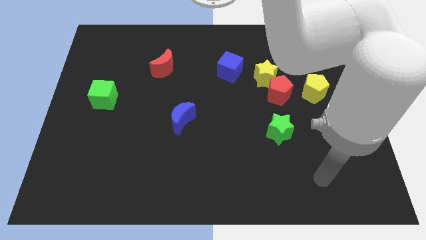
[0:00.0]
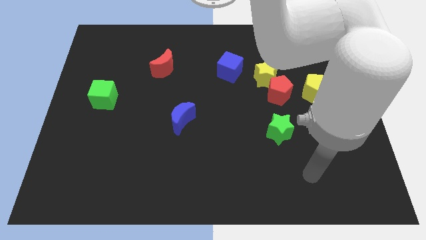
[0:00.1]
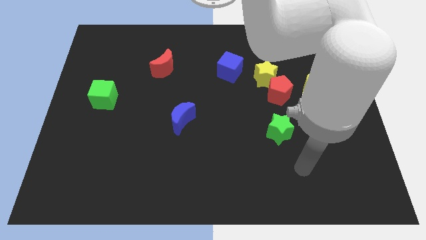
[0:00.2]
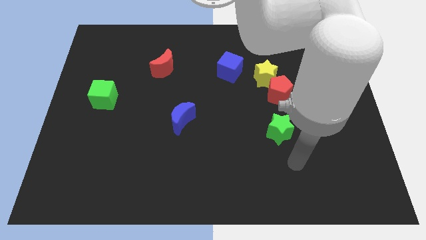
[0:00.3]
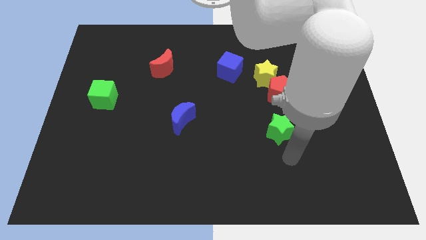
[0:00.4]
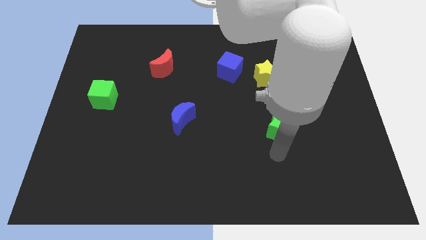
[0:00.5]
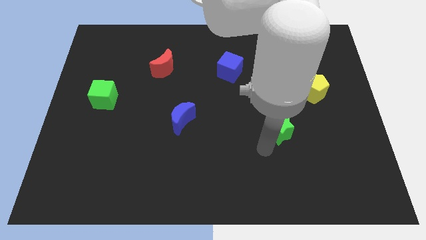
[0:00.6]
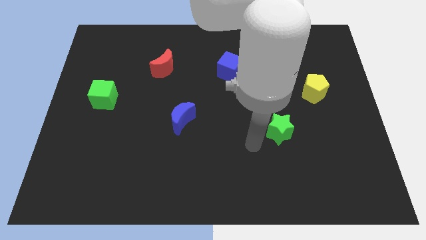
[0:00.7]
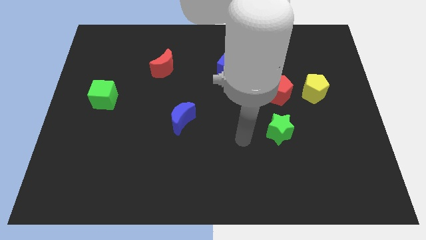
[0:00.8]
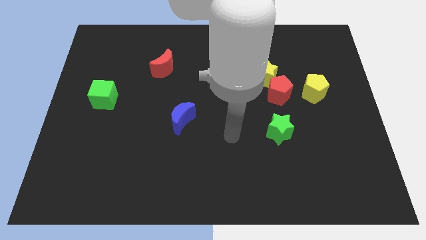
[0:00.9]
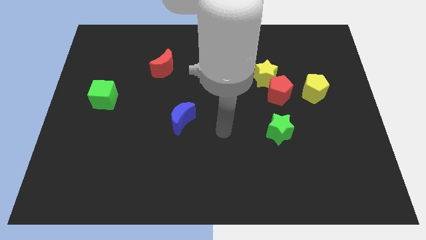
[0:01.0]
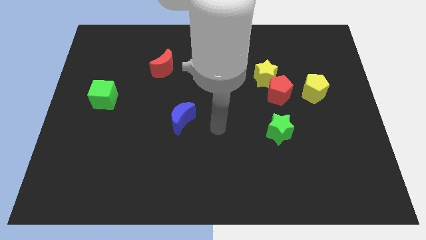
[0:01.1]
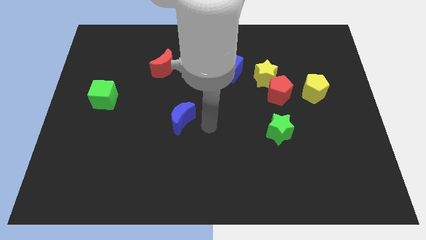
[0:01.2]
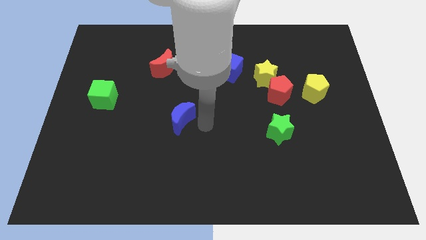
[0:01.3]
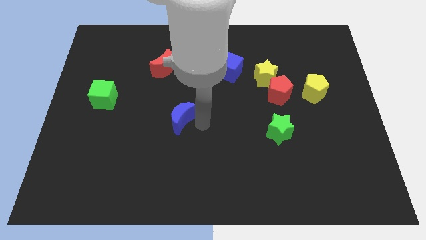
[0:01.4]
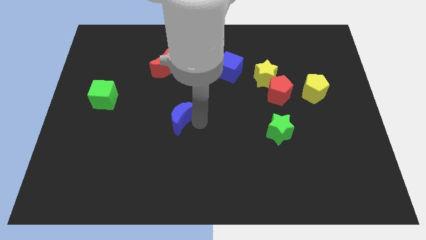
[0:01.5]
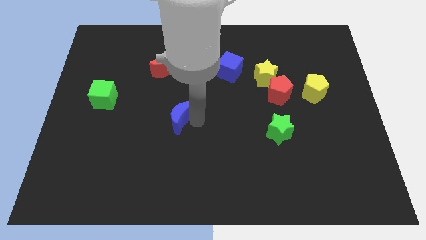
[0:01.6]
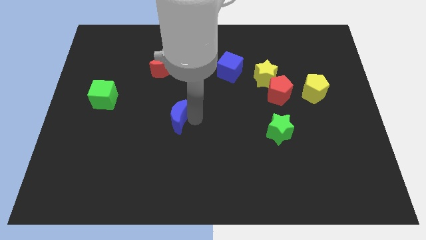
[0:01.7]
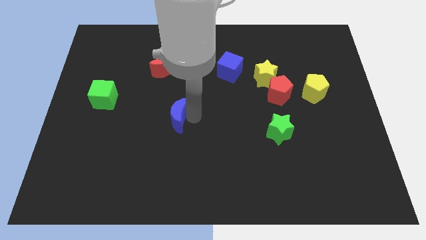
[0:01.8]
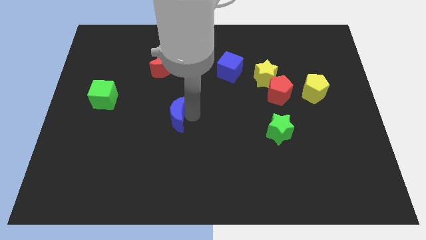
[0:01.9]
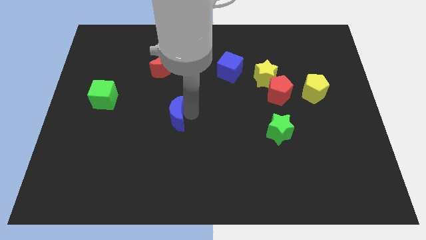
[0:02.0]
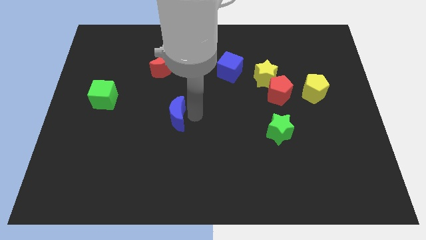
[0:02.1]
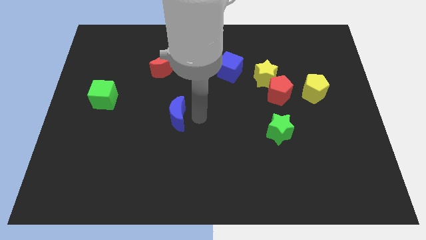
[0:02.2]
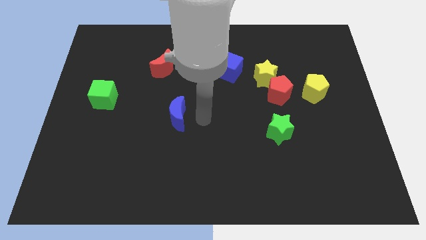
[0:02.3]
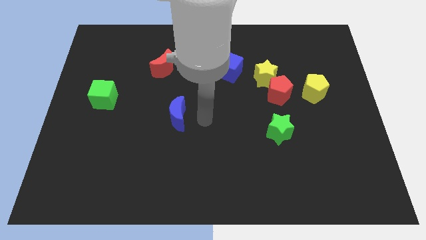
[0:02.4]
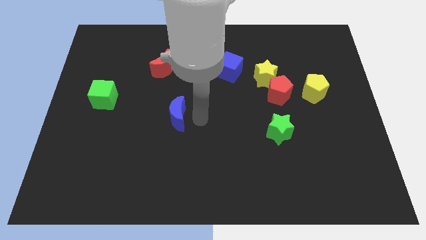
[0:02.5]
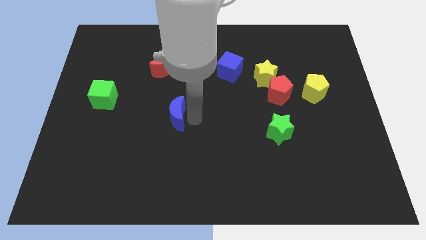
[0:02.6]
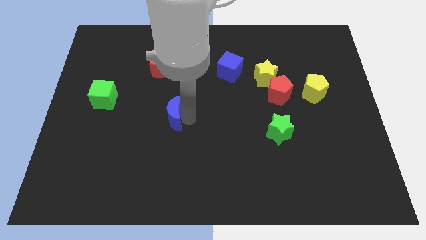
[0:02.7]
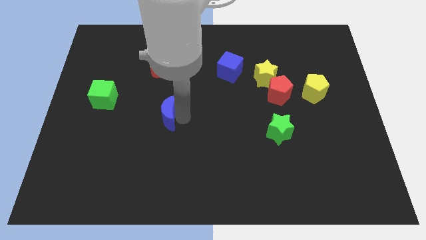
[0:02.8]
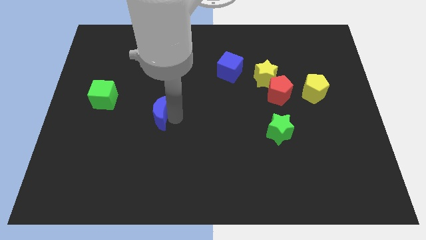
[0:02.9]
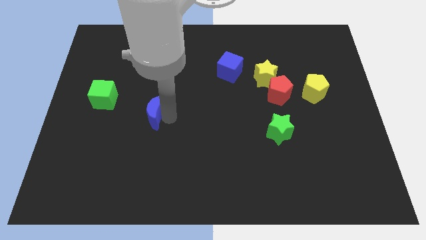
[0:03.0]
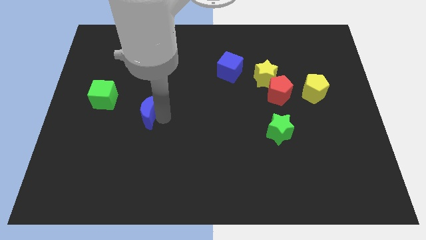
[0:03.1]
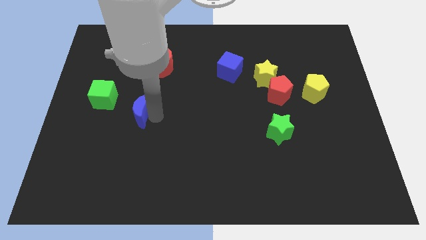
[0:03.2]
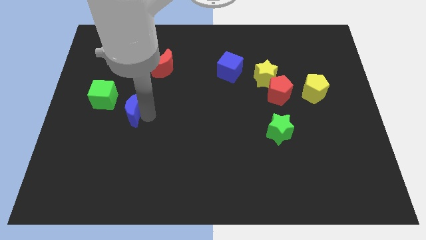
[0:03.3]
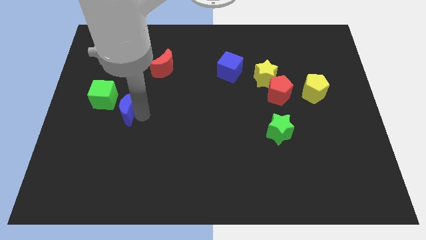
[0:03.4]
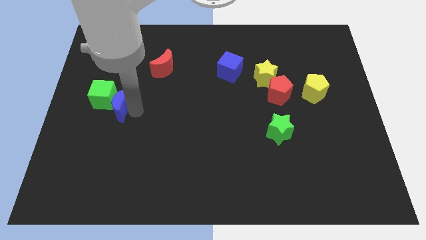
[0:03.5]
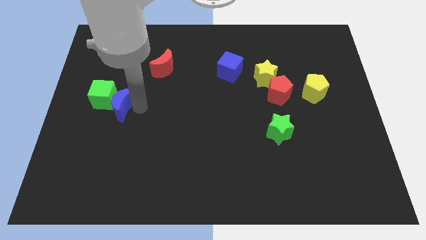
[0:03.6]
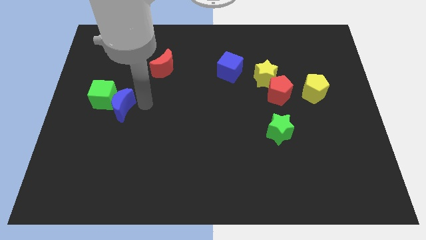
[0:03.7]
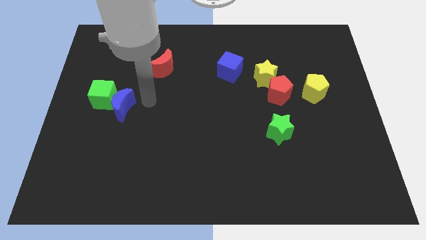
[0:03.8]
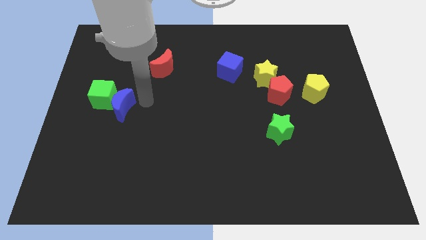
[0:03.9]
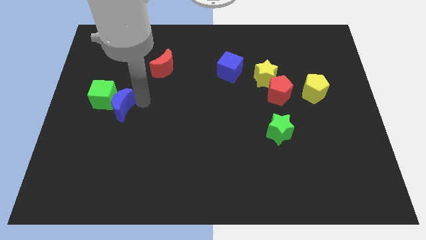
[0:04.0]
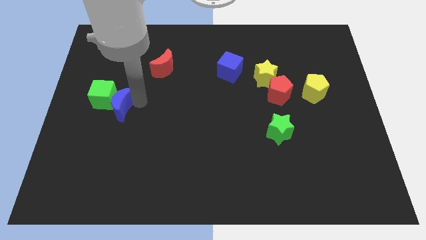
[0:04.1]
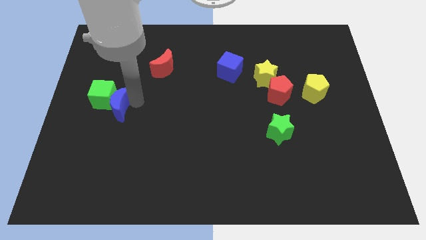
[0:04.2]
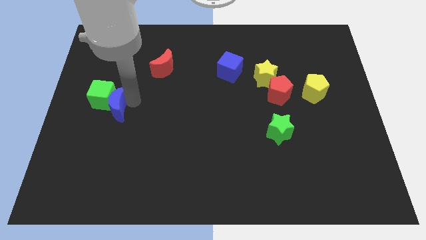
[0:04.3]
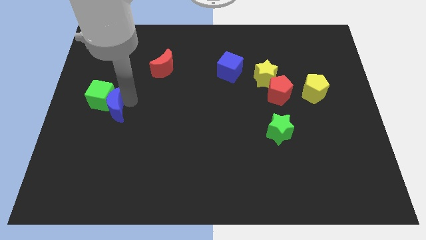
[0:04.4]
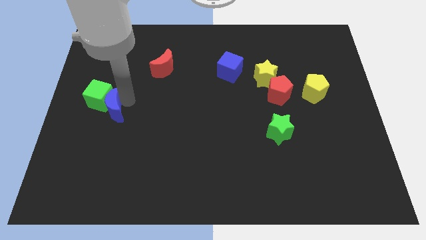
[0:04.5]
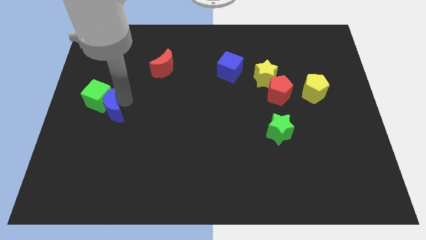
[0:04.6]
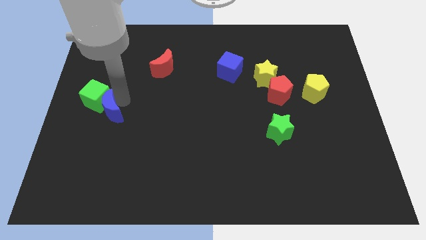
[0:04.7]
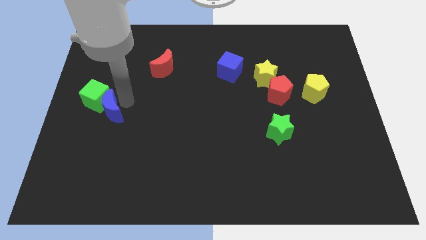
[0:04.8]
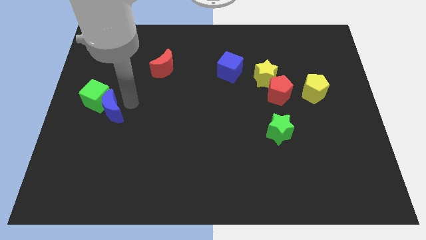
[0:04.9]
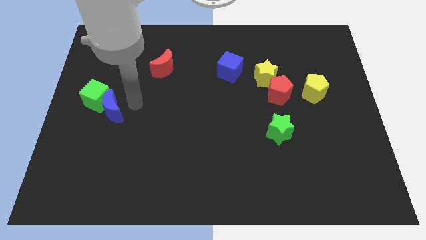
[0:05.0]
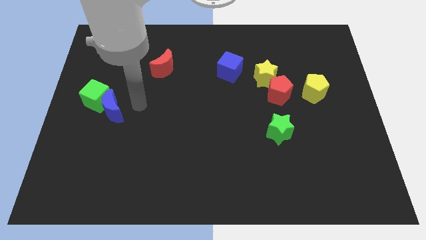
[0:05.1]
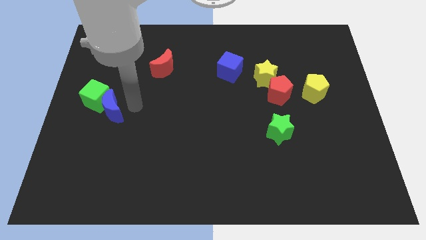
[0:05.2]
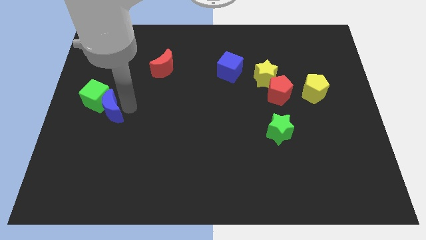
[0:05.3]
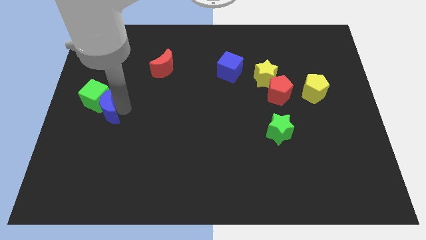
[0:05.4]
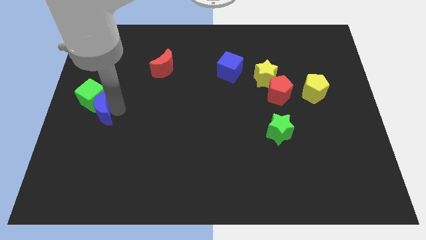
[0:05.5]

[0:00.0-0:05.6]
push the blue moon to the left side

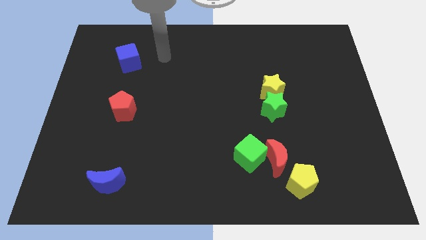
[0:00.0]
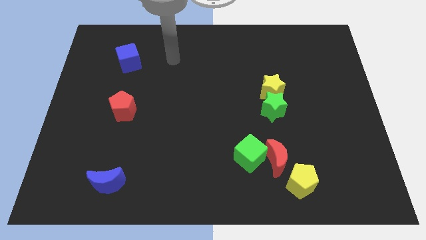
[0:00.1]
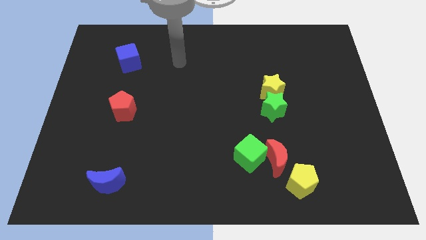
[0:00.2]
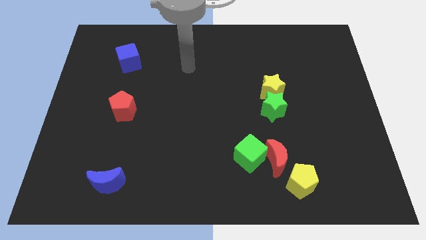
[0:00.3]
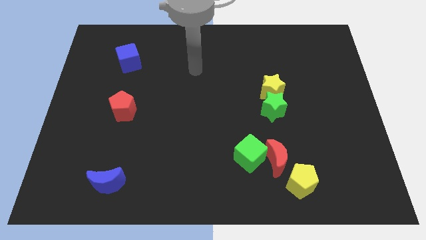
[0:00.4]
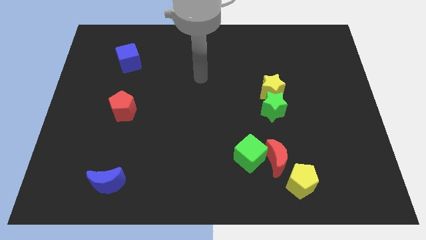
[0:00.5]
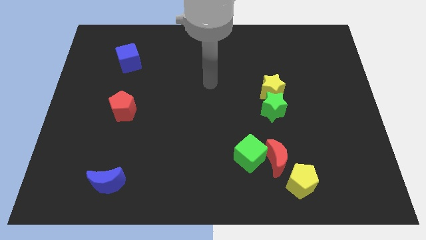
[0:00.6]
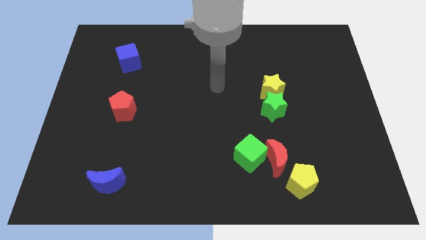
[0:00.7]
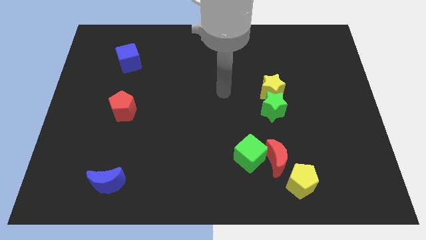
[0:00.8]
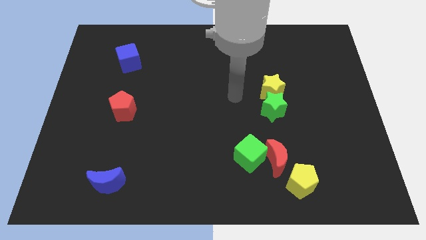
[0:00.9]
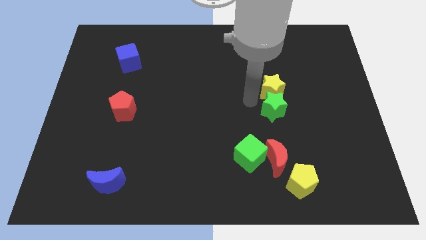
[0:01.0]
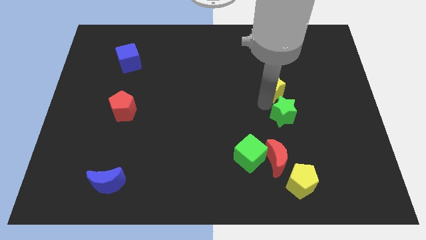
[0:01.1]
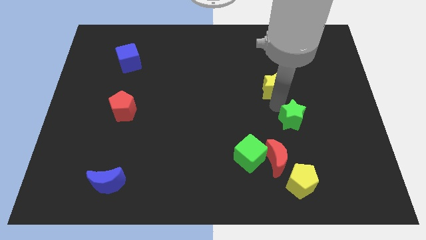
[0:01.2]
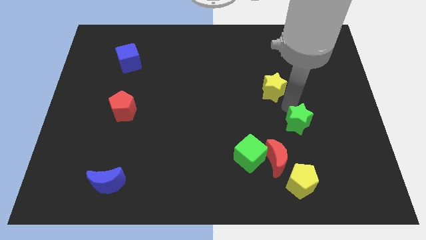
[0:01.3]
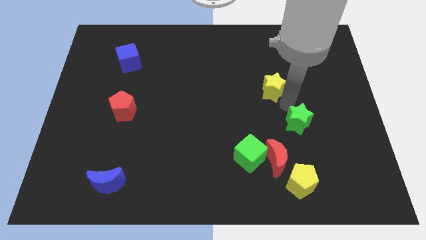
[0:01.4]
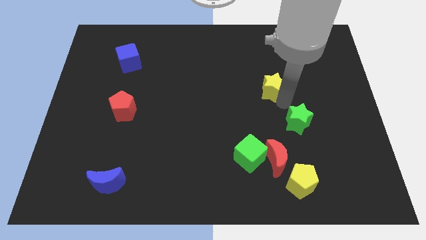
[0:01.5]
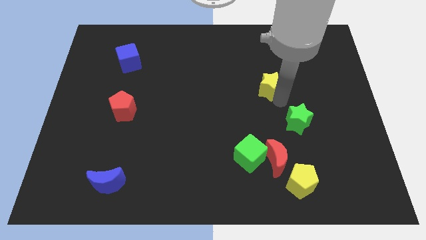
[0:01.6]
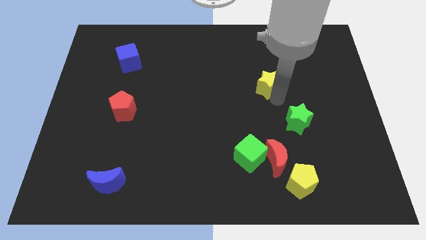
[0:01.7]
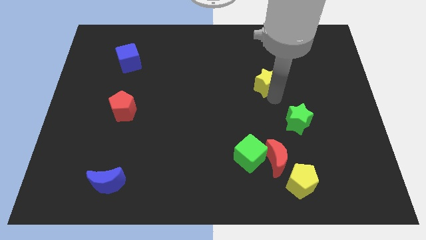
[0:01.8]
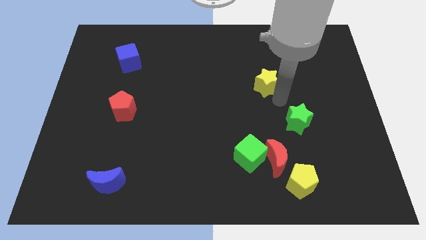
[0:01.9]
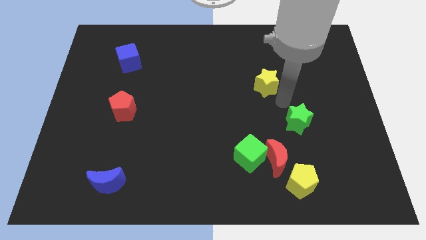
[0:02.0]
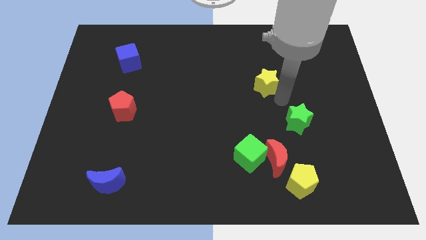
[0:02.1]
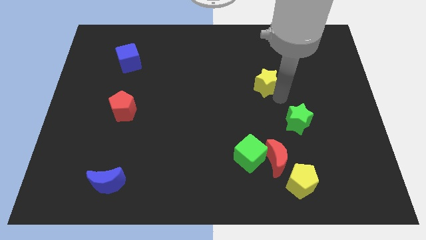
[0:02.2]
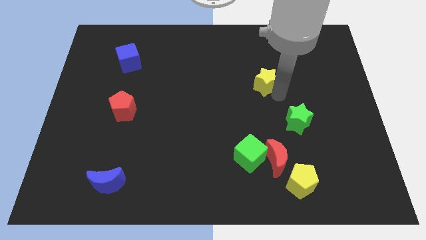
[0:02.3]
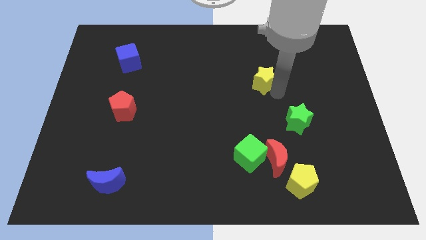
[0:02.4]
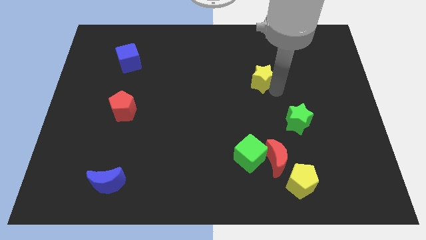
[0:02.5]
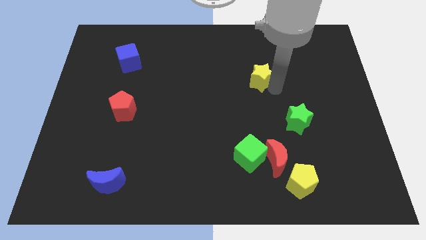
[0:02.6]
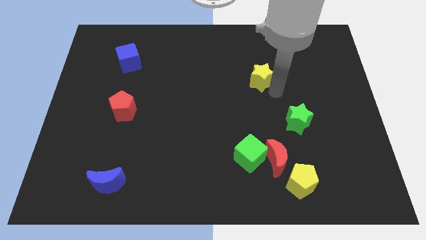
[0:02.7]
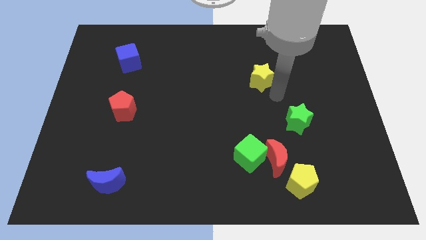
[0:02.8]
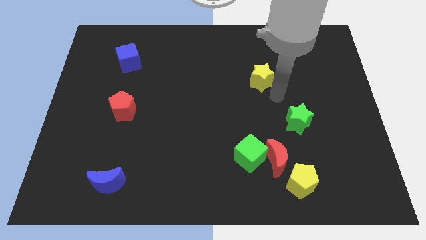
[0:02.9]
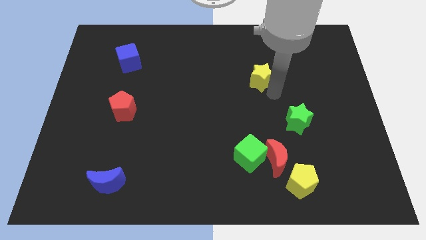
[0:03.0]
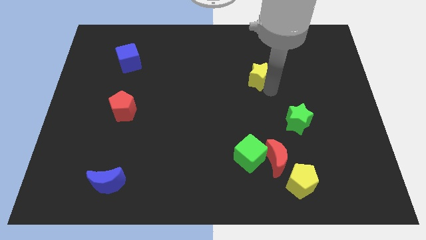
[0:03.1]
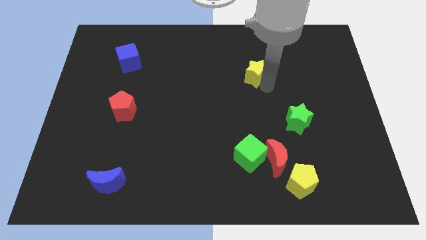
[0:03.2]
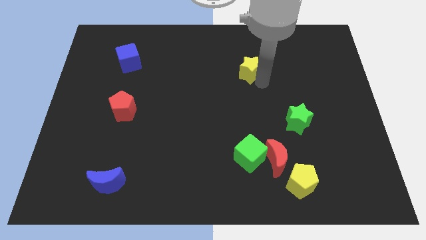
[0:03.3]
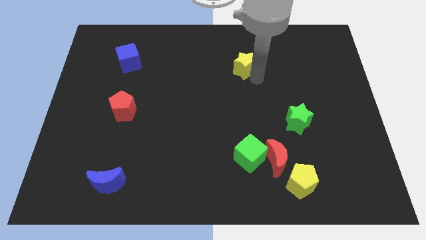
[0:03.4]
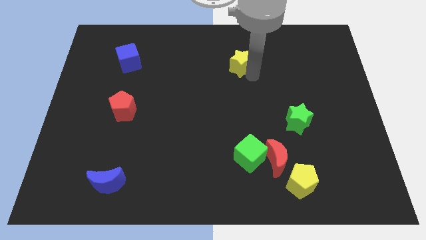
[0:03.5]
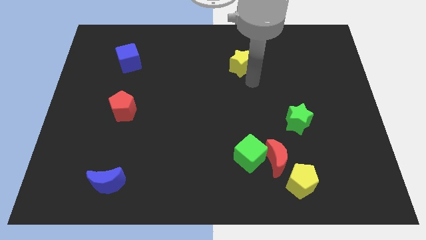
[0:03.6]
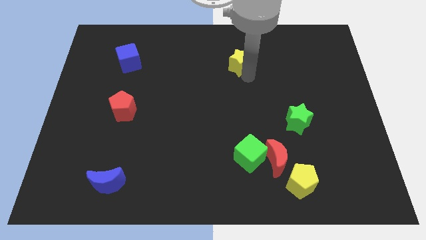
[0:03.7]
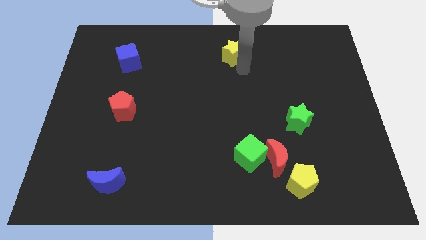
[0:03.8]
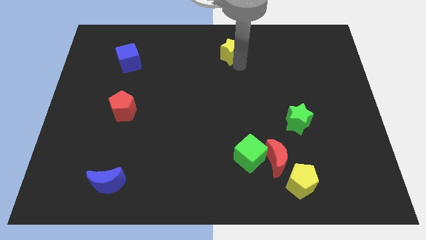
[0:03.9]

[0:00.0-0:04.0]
push the yellow star to the top
